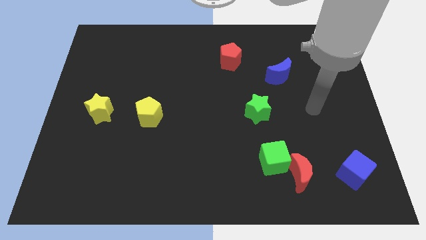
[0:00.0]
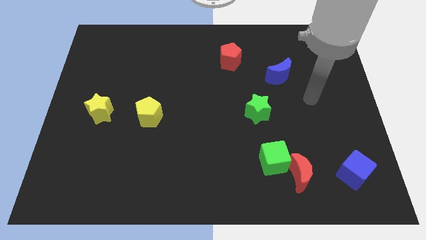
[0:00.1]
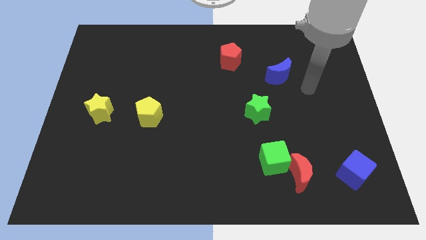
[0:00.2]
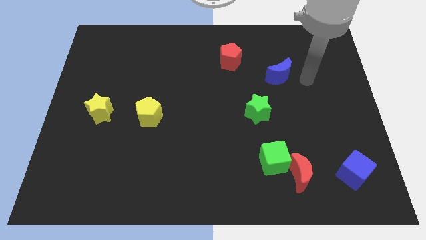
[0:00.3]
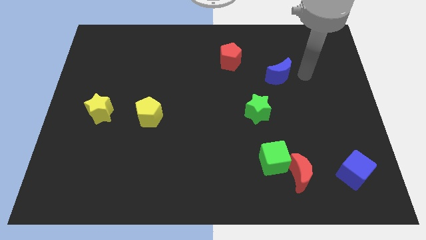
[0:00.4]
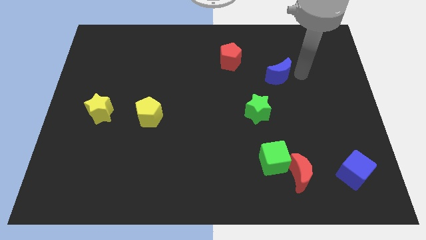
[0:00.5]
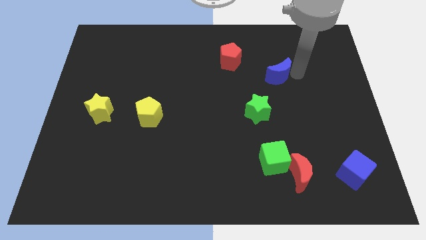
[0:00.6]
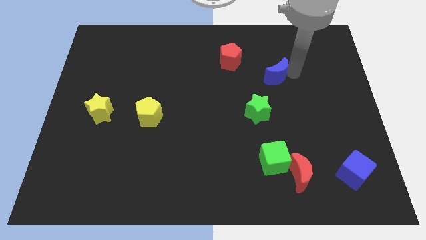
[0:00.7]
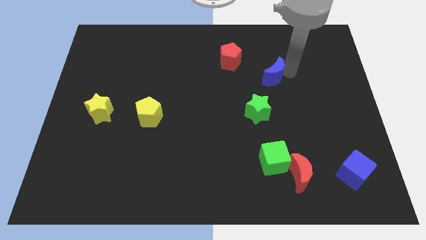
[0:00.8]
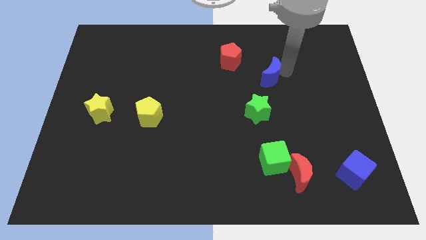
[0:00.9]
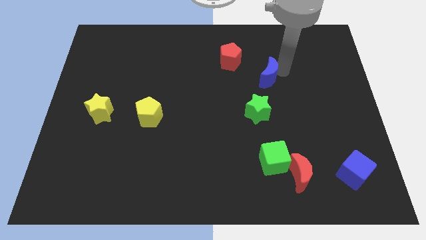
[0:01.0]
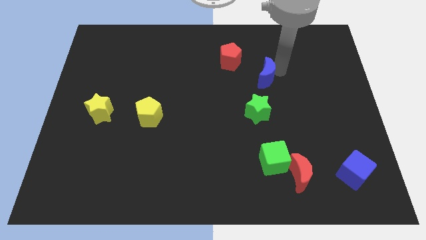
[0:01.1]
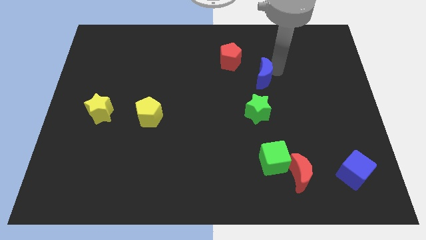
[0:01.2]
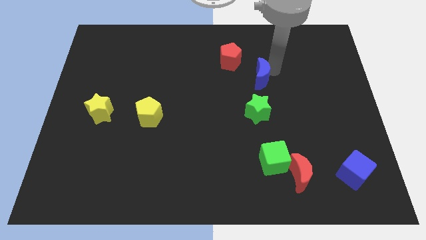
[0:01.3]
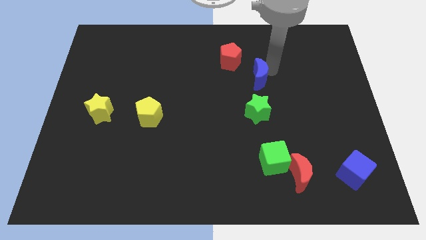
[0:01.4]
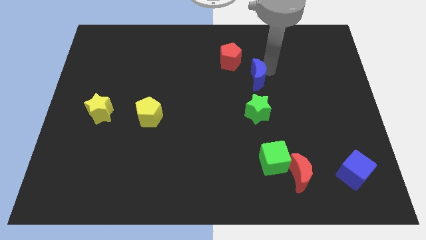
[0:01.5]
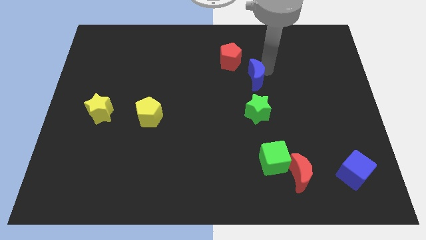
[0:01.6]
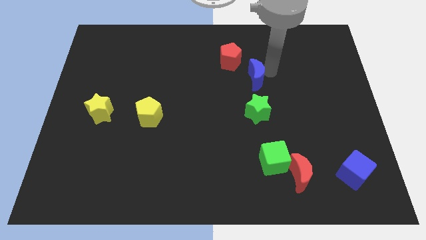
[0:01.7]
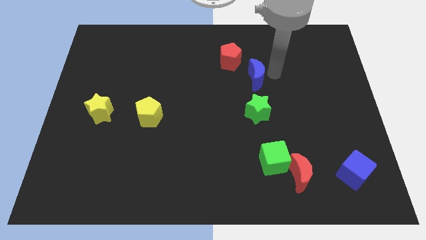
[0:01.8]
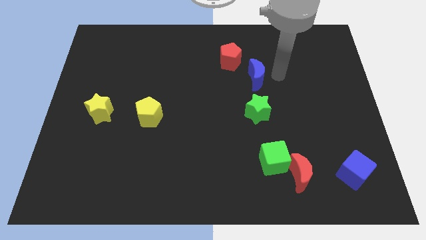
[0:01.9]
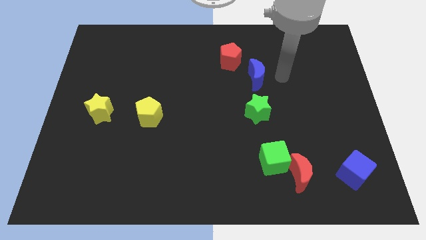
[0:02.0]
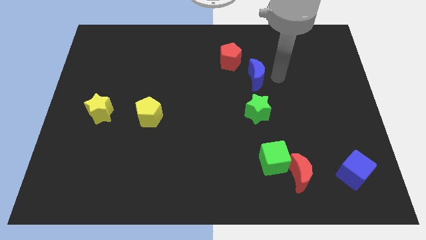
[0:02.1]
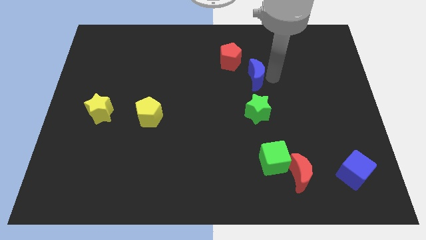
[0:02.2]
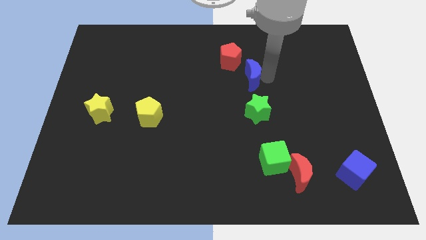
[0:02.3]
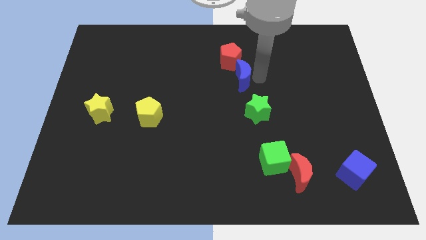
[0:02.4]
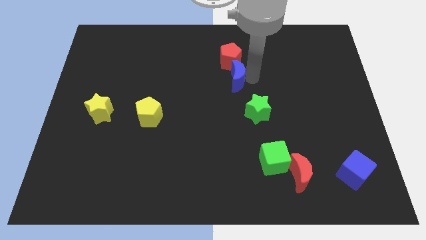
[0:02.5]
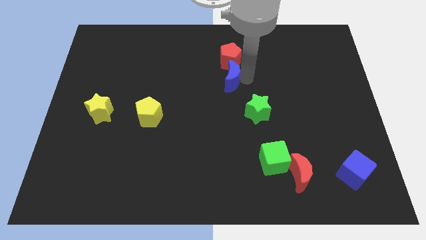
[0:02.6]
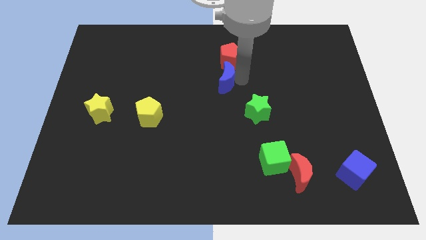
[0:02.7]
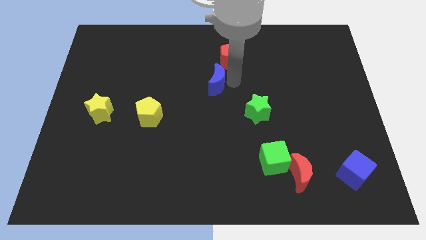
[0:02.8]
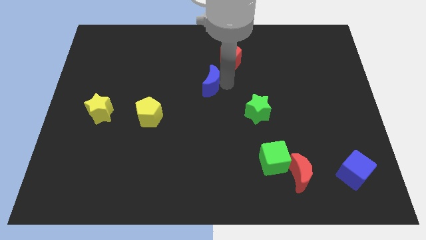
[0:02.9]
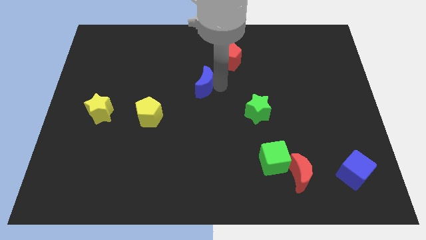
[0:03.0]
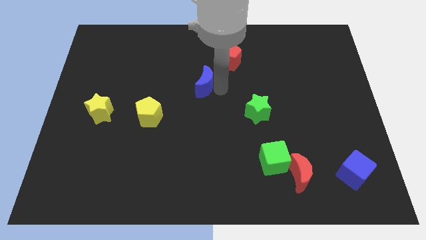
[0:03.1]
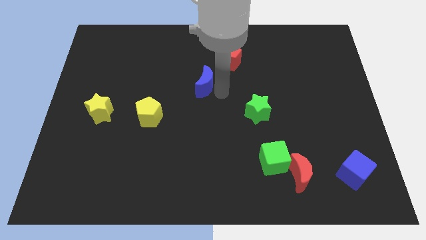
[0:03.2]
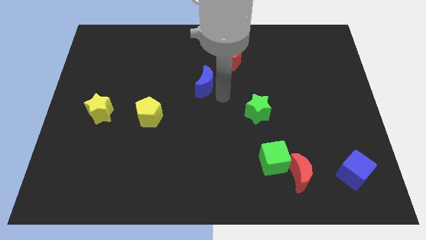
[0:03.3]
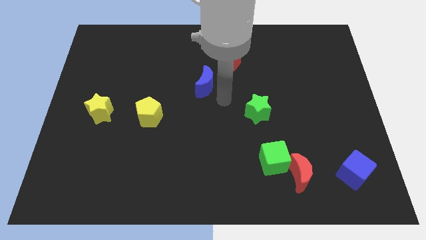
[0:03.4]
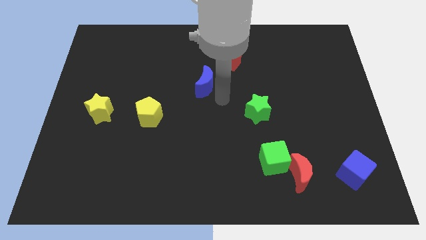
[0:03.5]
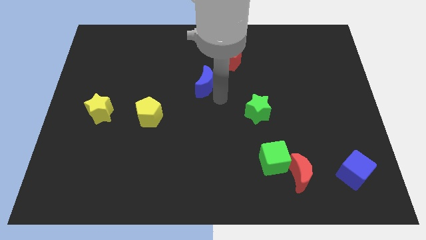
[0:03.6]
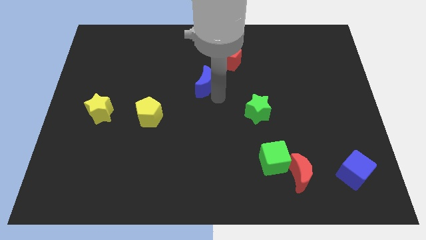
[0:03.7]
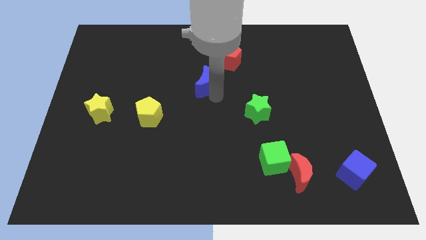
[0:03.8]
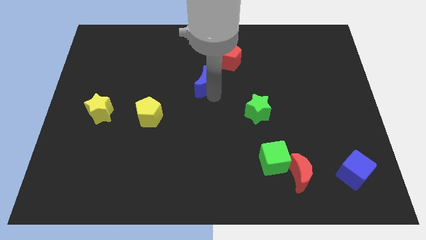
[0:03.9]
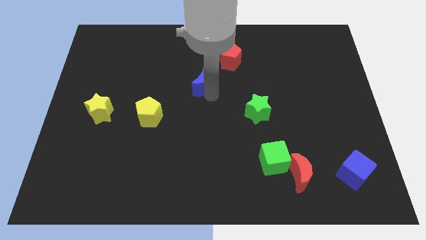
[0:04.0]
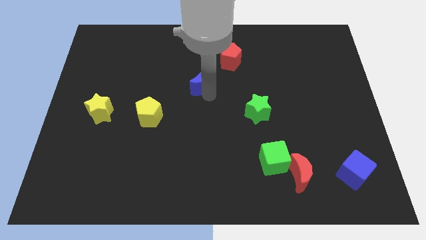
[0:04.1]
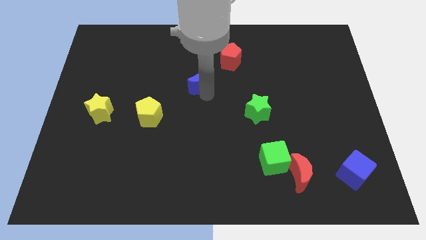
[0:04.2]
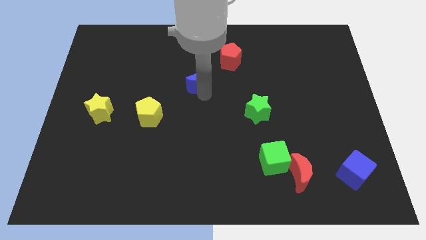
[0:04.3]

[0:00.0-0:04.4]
slide the blue moon to the left

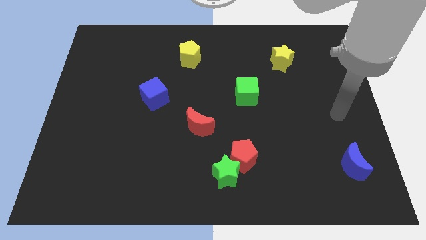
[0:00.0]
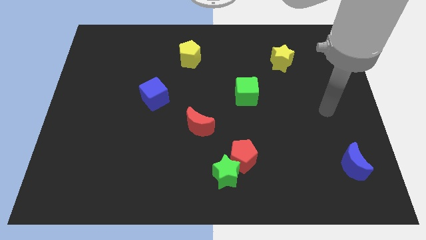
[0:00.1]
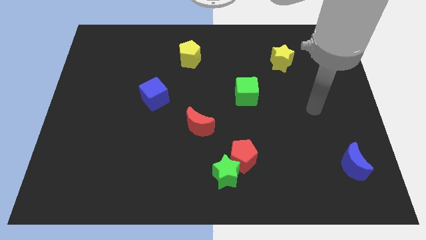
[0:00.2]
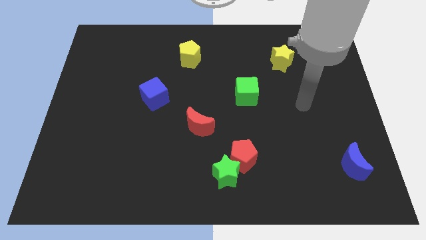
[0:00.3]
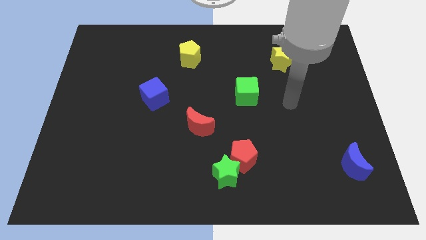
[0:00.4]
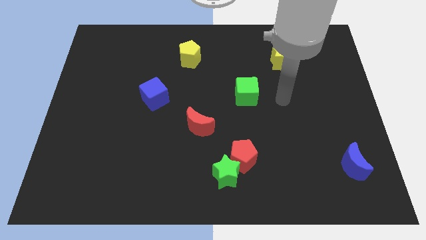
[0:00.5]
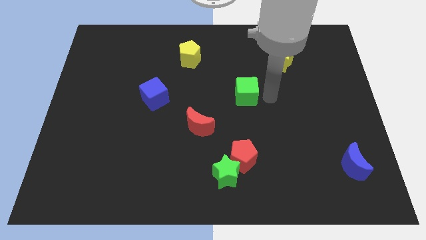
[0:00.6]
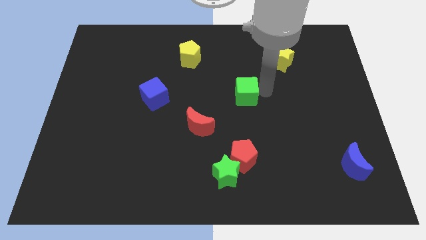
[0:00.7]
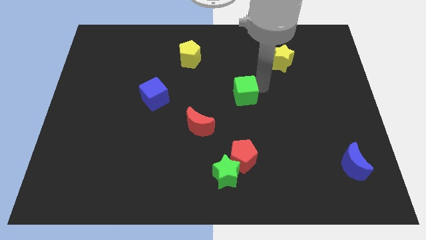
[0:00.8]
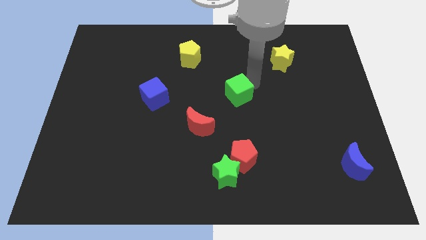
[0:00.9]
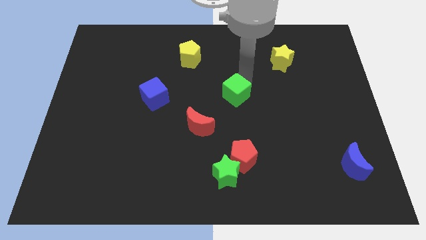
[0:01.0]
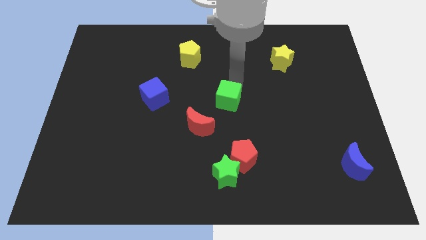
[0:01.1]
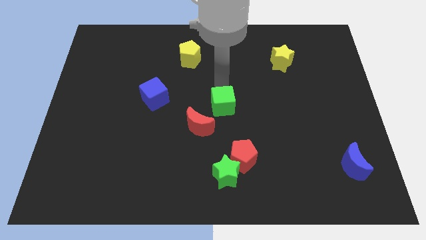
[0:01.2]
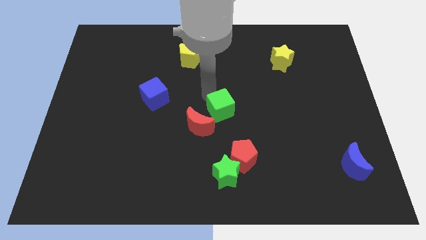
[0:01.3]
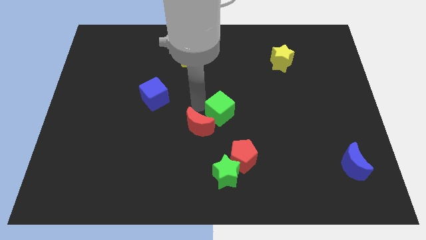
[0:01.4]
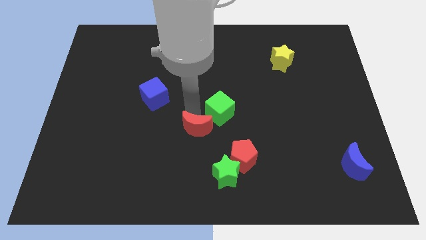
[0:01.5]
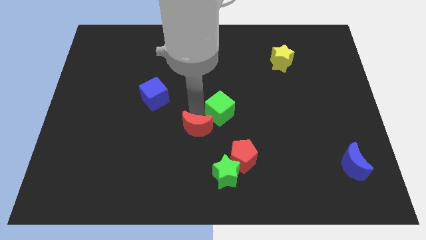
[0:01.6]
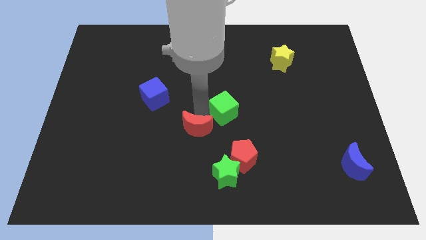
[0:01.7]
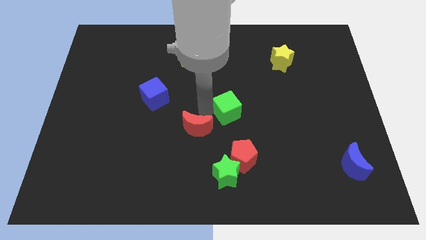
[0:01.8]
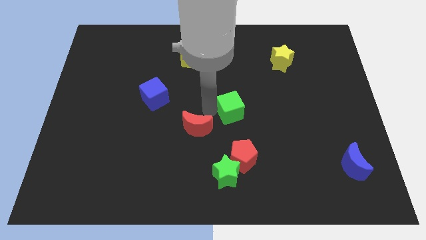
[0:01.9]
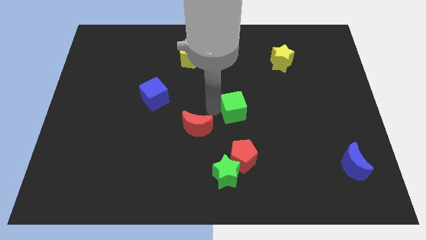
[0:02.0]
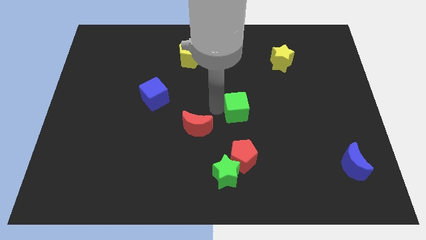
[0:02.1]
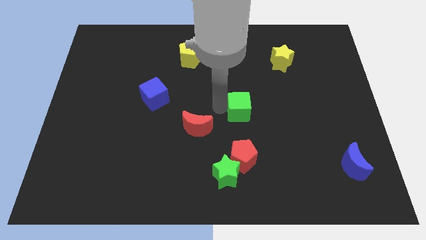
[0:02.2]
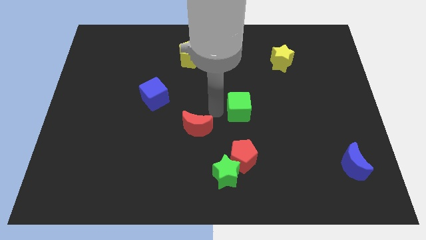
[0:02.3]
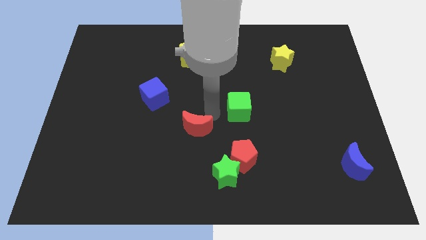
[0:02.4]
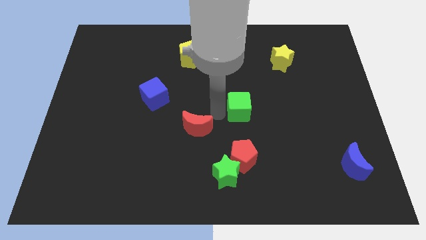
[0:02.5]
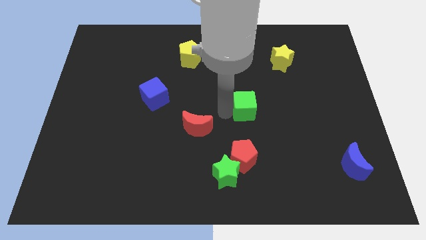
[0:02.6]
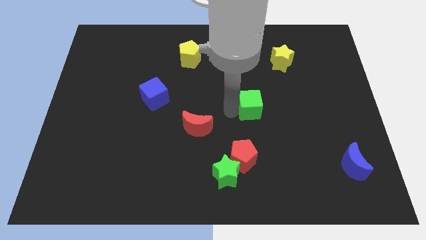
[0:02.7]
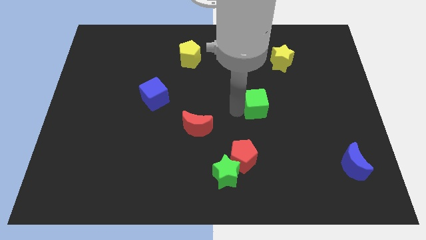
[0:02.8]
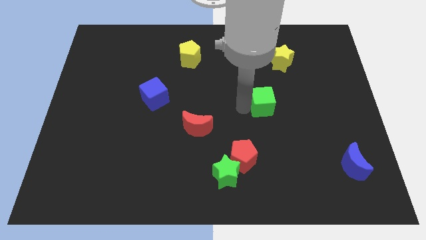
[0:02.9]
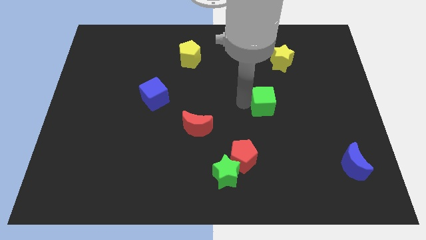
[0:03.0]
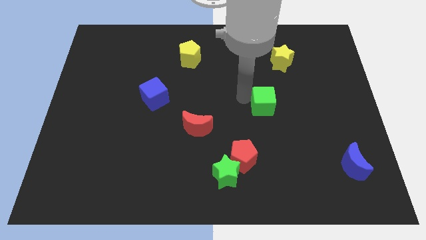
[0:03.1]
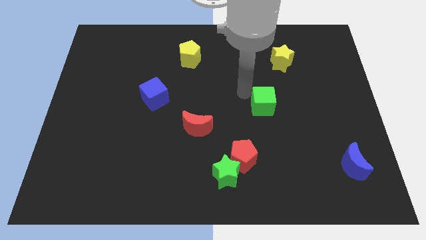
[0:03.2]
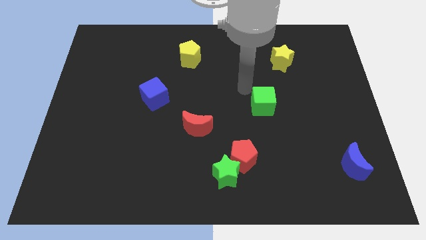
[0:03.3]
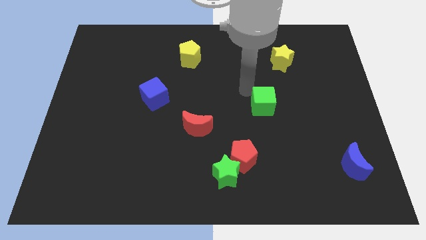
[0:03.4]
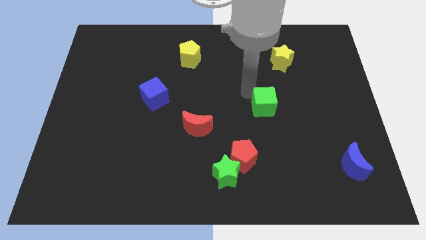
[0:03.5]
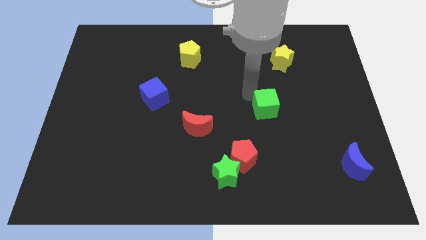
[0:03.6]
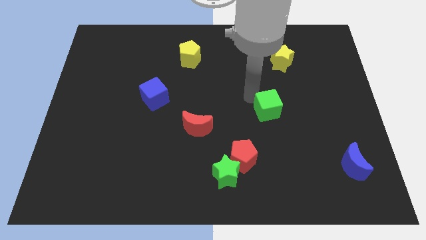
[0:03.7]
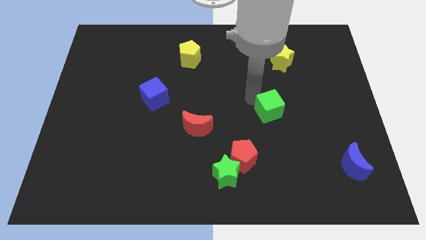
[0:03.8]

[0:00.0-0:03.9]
push the green cube somewhat downwards and right diagonally
